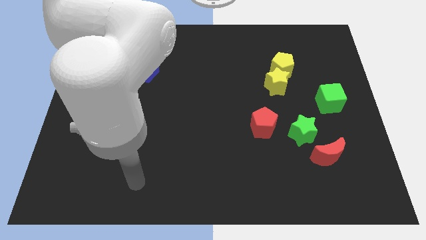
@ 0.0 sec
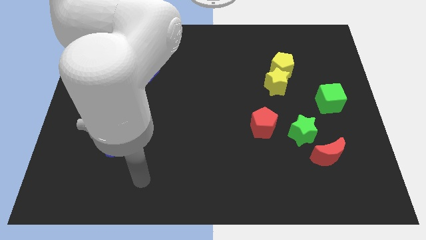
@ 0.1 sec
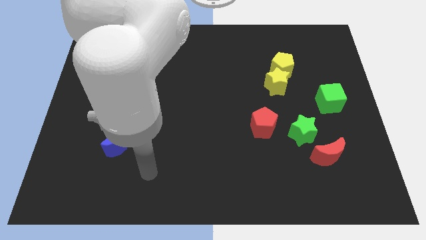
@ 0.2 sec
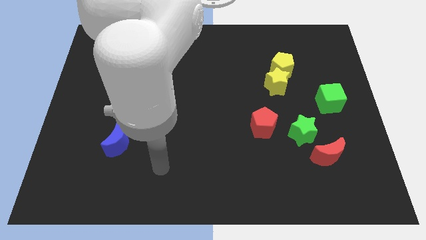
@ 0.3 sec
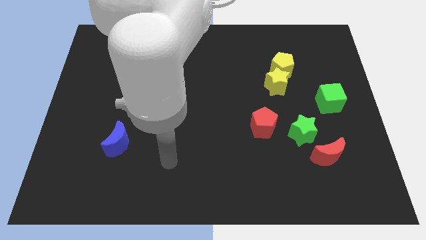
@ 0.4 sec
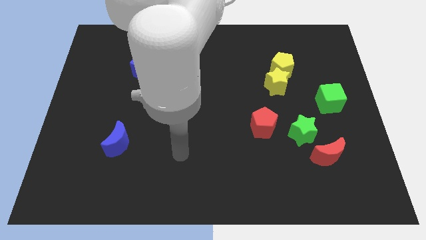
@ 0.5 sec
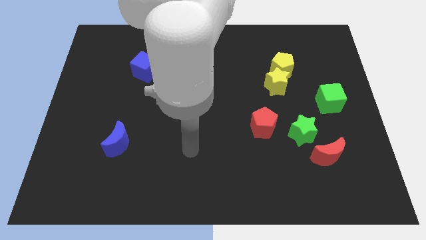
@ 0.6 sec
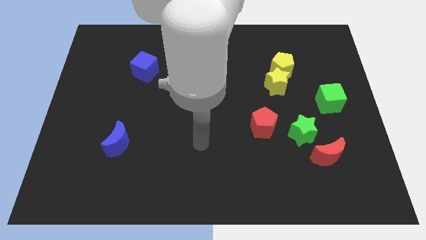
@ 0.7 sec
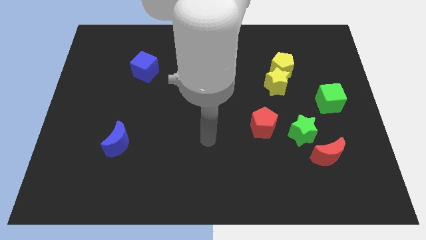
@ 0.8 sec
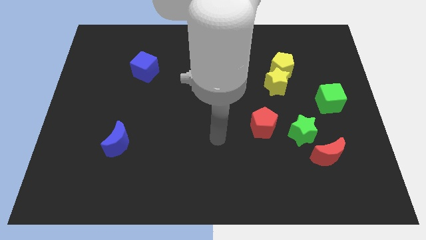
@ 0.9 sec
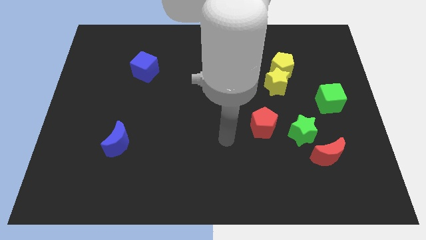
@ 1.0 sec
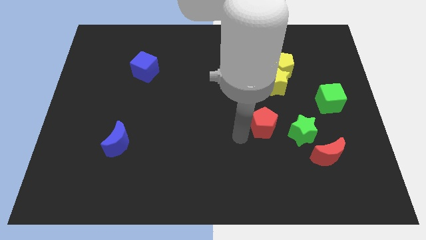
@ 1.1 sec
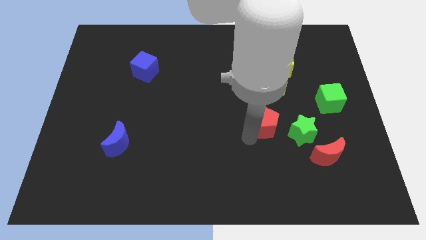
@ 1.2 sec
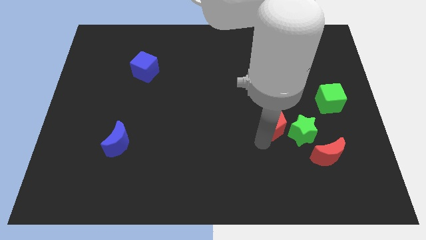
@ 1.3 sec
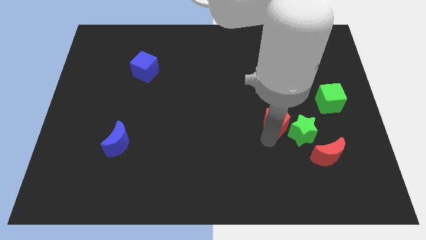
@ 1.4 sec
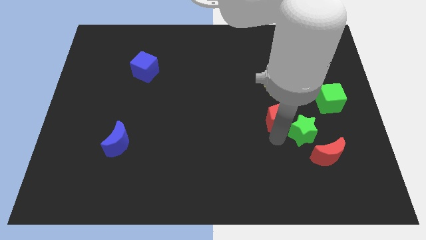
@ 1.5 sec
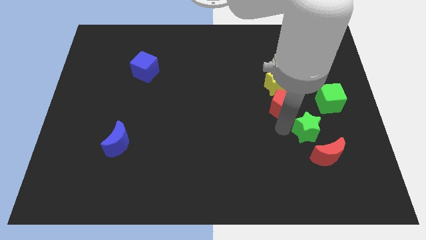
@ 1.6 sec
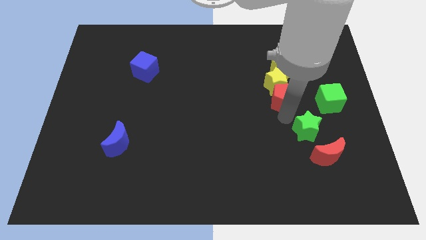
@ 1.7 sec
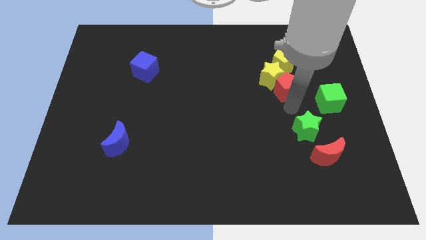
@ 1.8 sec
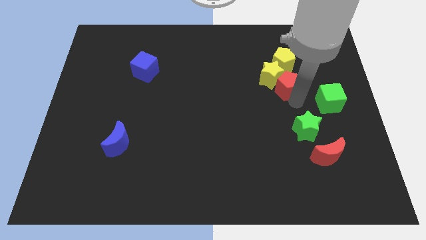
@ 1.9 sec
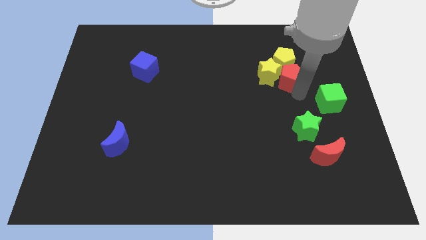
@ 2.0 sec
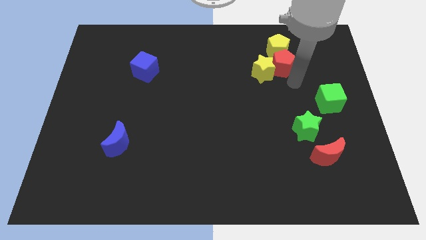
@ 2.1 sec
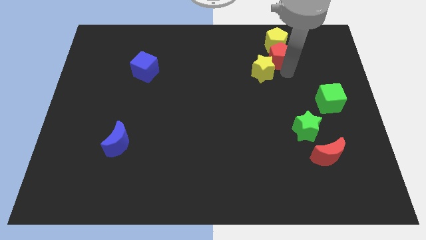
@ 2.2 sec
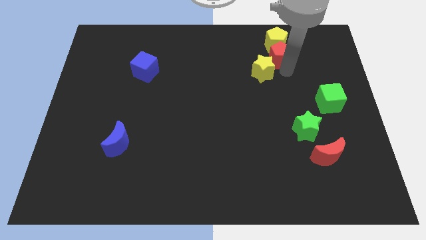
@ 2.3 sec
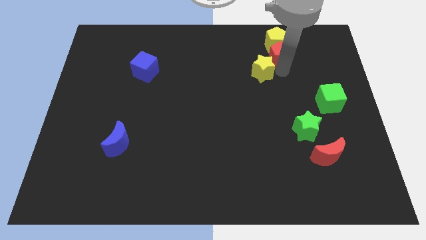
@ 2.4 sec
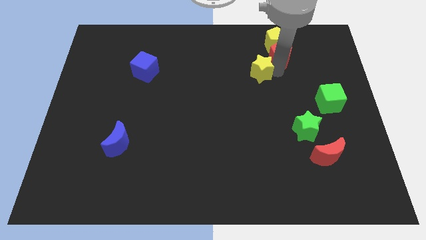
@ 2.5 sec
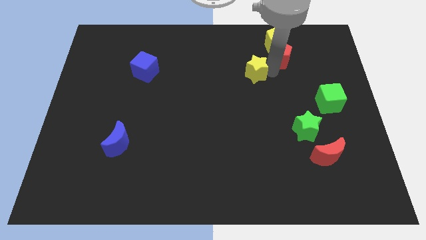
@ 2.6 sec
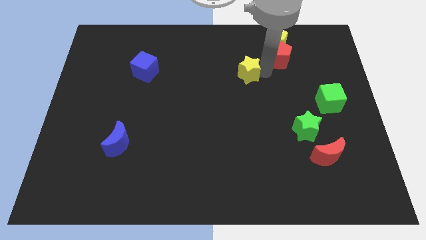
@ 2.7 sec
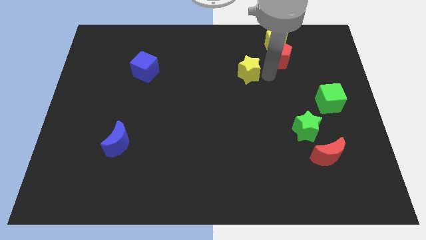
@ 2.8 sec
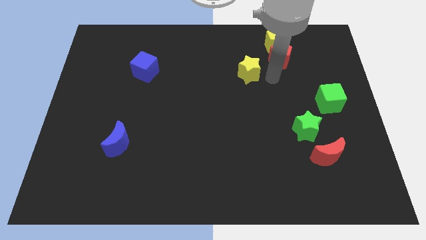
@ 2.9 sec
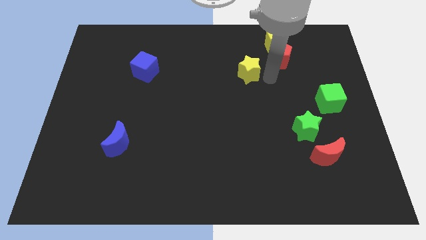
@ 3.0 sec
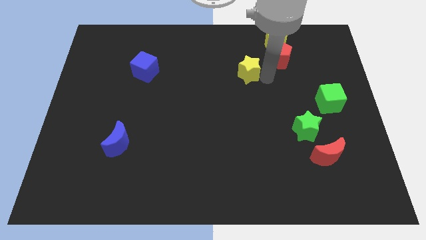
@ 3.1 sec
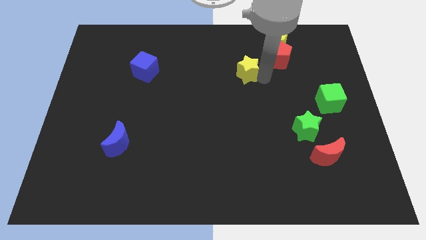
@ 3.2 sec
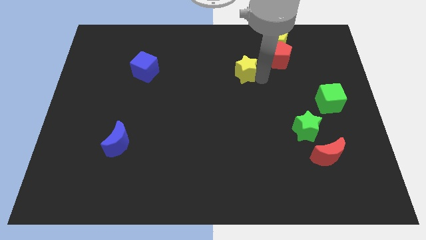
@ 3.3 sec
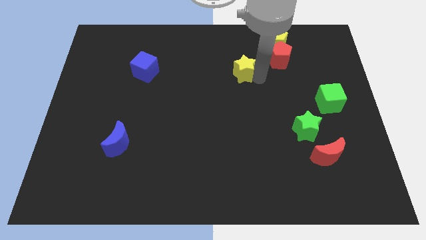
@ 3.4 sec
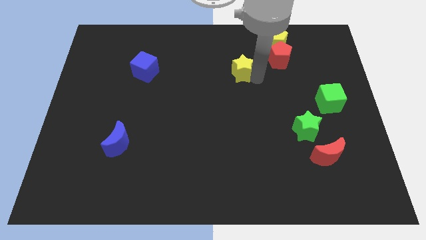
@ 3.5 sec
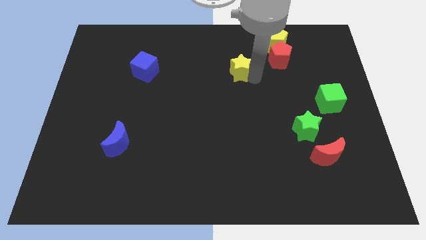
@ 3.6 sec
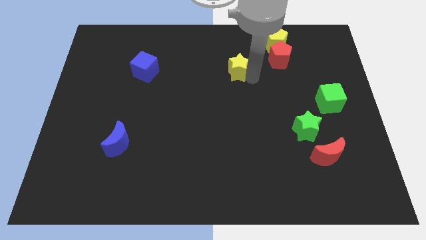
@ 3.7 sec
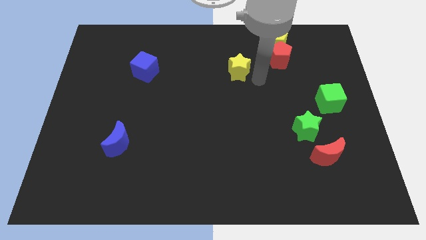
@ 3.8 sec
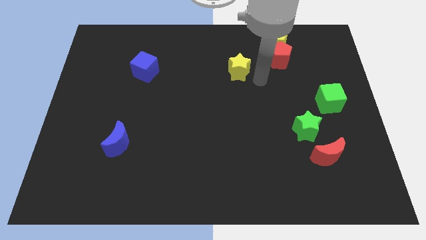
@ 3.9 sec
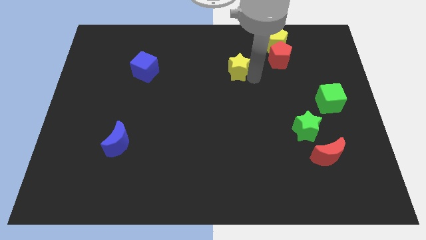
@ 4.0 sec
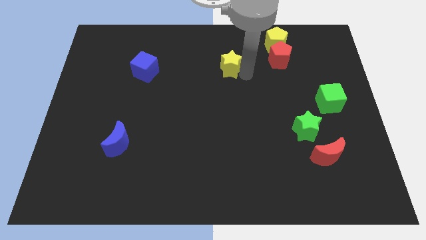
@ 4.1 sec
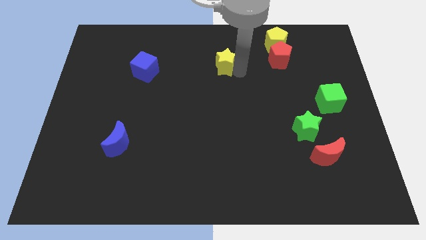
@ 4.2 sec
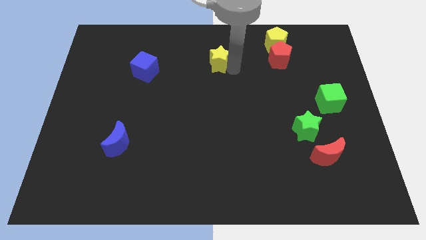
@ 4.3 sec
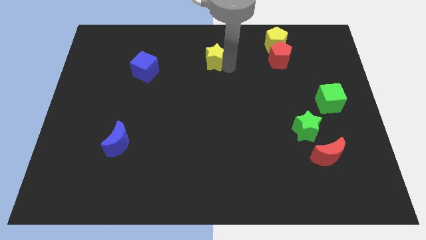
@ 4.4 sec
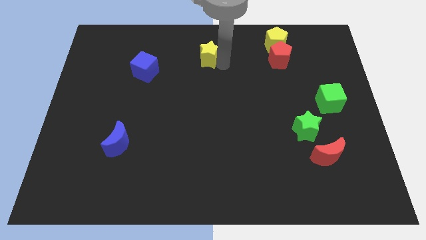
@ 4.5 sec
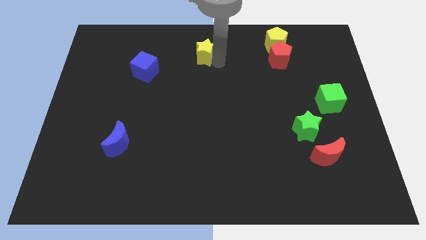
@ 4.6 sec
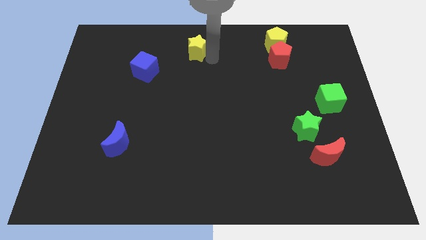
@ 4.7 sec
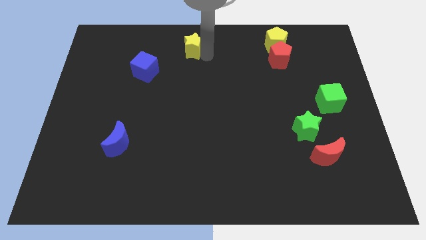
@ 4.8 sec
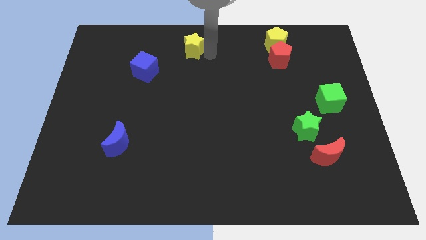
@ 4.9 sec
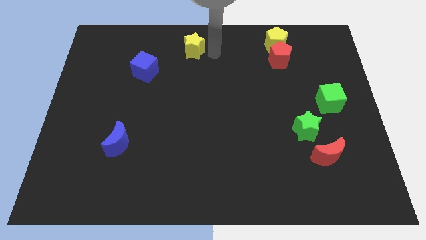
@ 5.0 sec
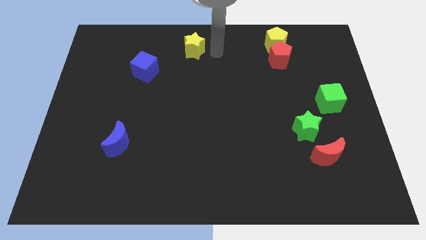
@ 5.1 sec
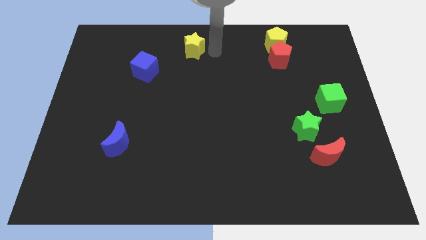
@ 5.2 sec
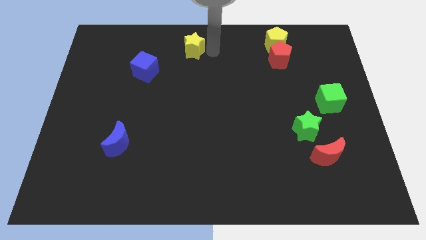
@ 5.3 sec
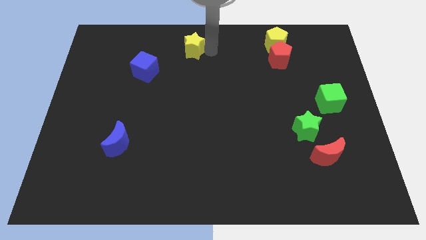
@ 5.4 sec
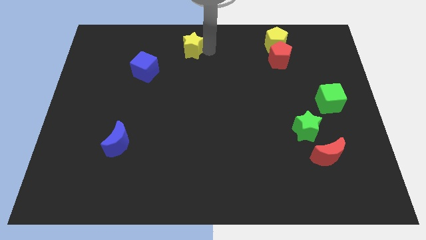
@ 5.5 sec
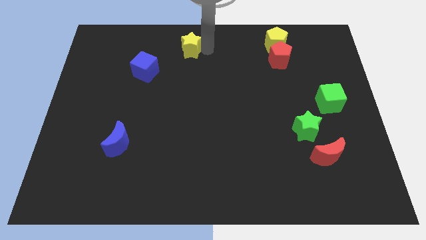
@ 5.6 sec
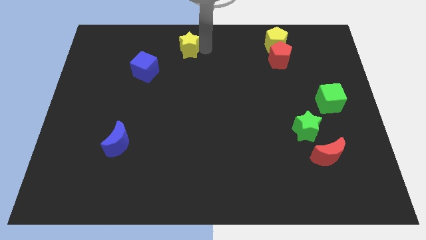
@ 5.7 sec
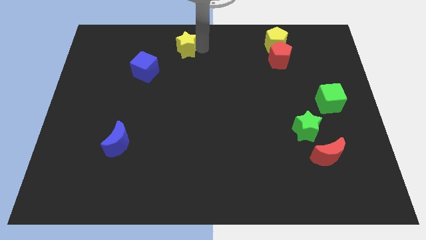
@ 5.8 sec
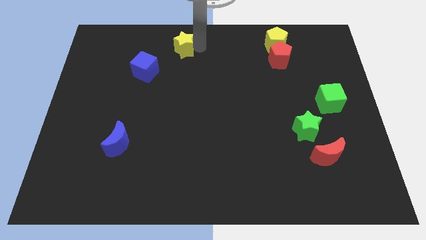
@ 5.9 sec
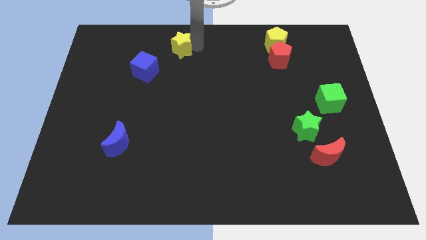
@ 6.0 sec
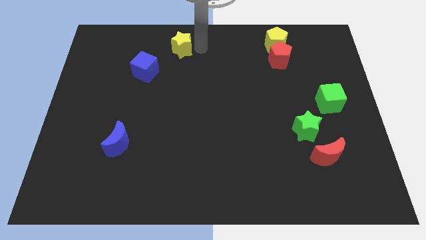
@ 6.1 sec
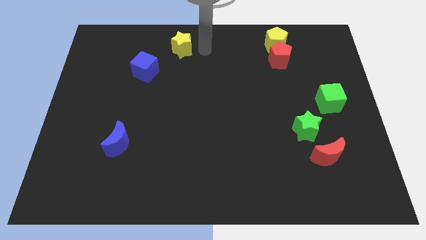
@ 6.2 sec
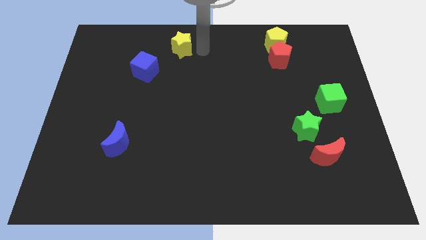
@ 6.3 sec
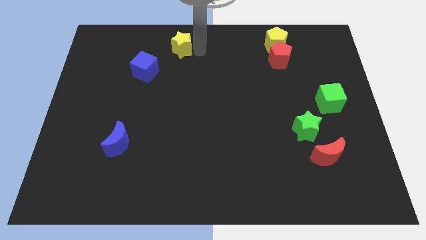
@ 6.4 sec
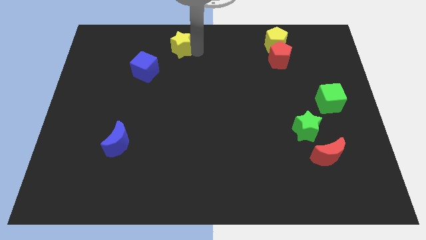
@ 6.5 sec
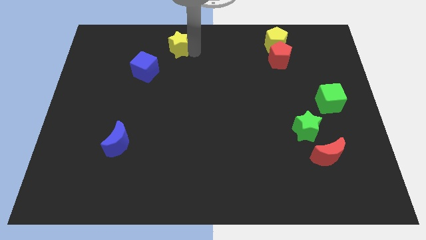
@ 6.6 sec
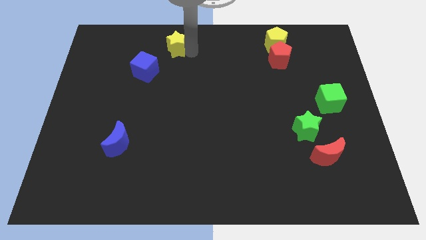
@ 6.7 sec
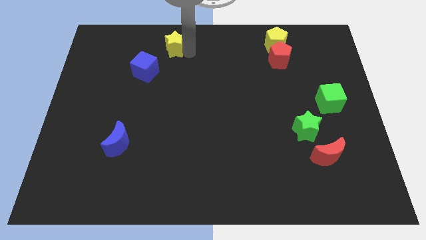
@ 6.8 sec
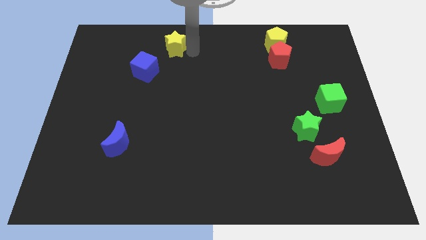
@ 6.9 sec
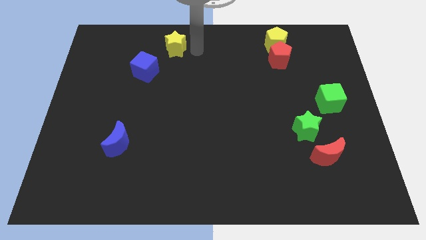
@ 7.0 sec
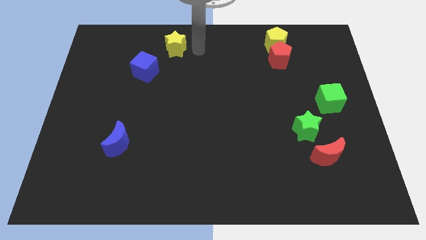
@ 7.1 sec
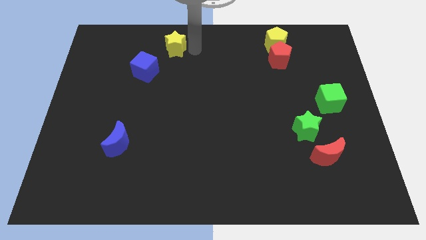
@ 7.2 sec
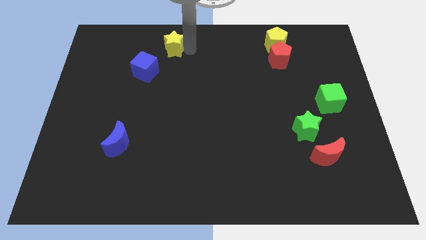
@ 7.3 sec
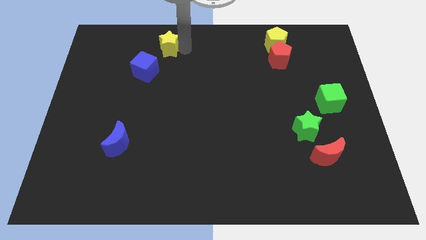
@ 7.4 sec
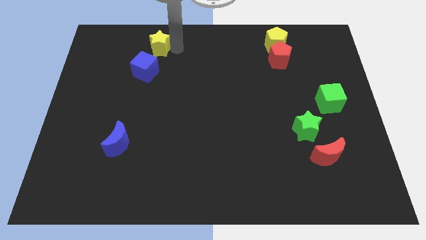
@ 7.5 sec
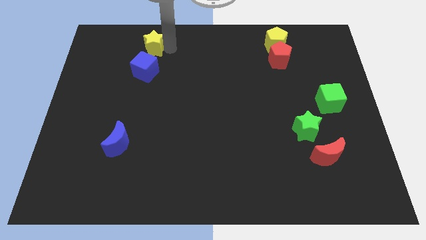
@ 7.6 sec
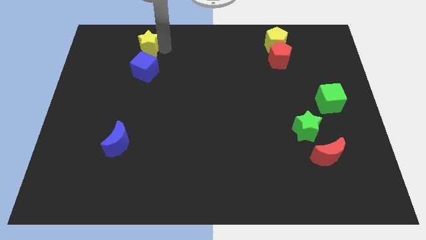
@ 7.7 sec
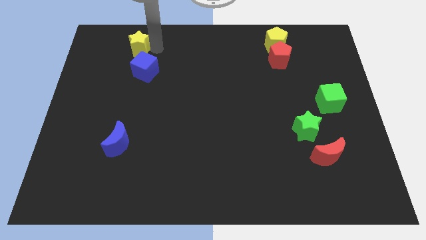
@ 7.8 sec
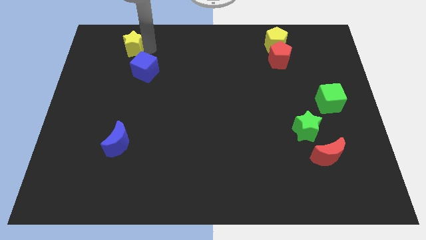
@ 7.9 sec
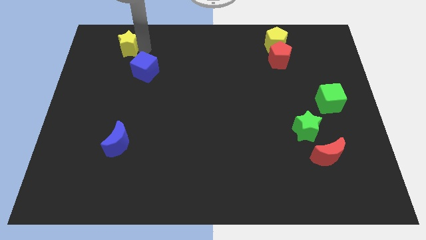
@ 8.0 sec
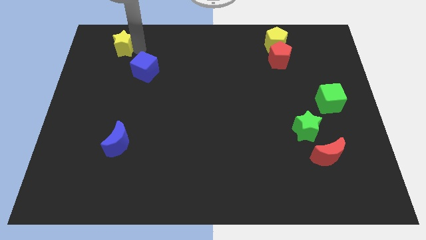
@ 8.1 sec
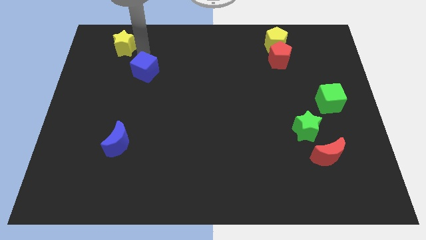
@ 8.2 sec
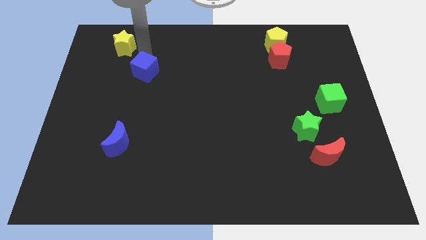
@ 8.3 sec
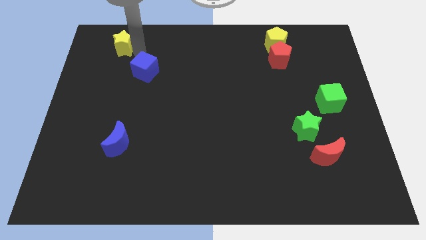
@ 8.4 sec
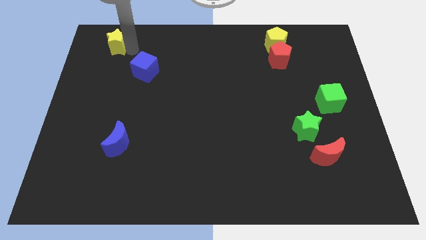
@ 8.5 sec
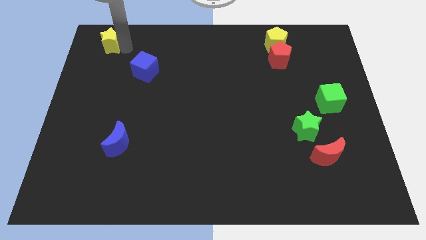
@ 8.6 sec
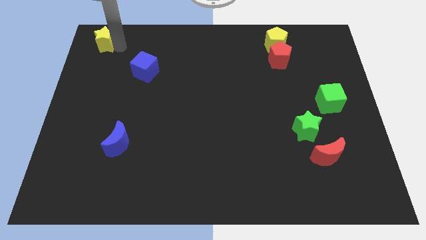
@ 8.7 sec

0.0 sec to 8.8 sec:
move the yellow star to the top left corner
